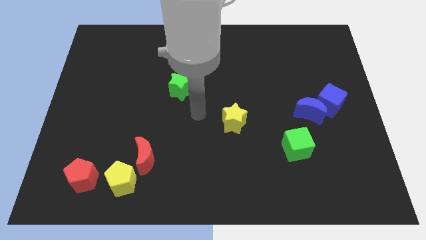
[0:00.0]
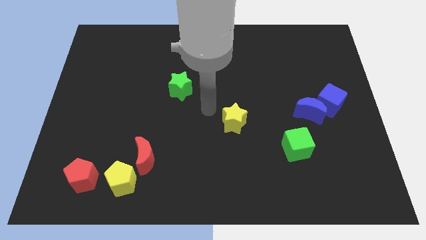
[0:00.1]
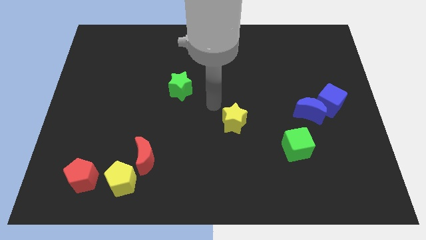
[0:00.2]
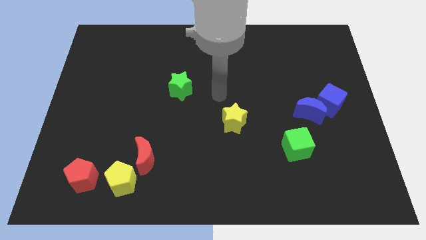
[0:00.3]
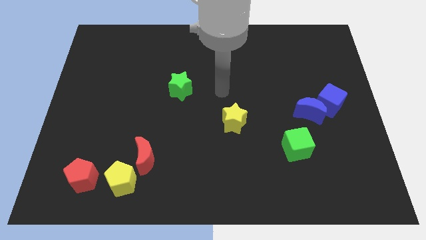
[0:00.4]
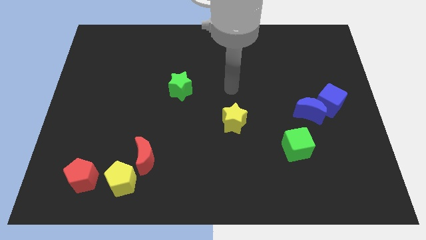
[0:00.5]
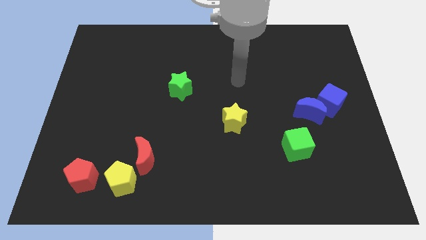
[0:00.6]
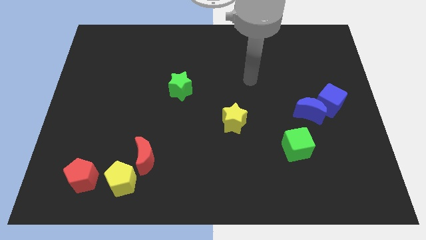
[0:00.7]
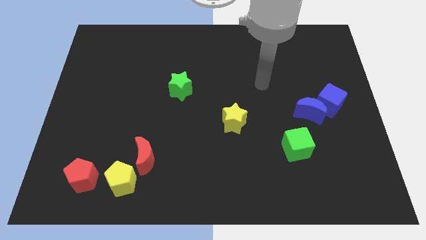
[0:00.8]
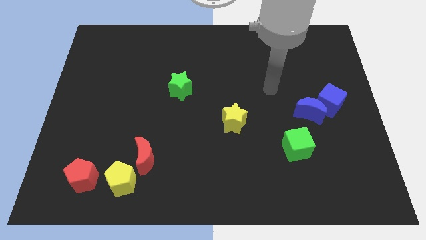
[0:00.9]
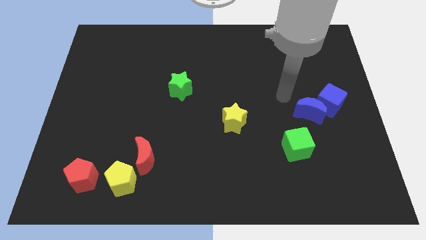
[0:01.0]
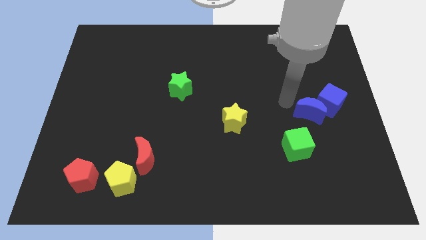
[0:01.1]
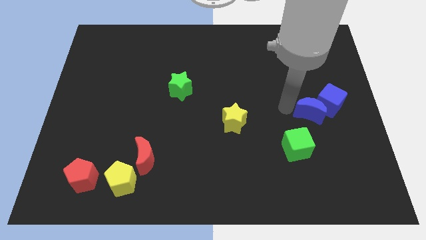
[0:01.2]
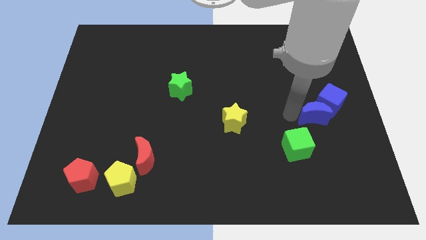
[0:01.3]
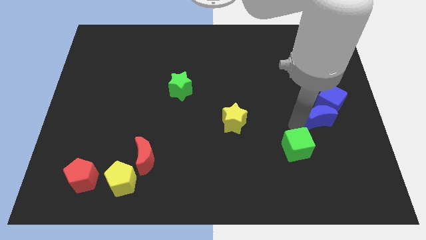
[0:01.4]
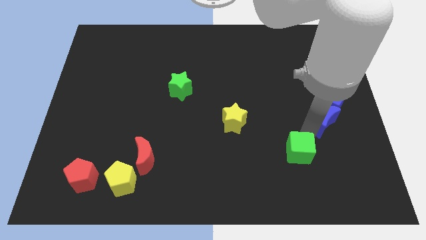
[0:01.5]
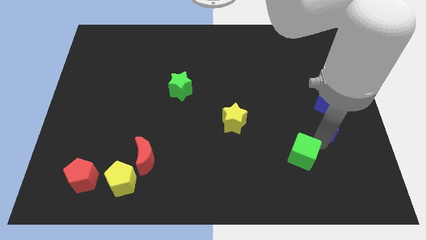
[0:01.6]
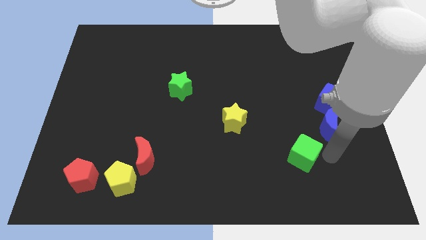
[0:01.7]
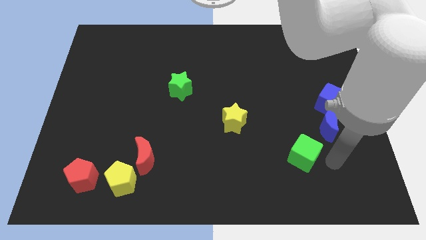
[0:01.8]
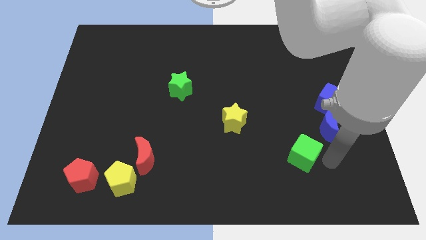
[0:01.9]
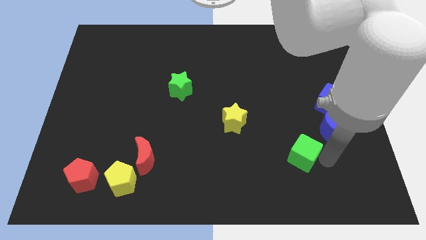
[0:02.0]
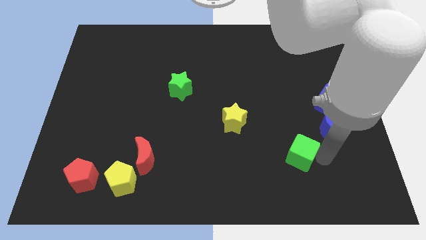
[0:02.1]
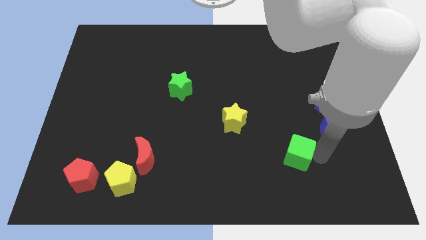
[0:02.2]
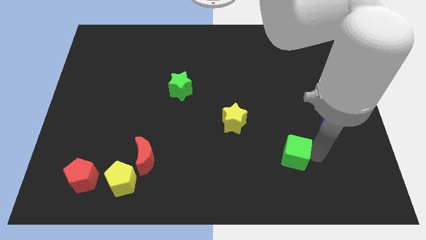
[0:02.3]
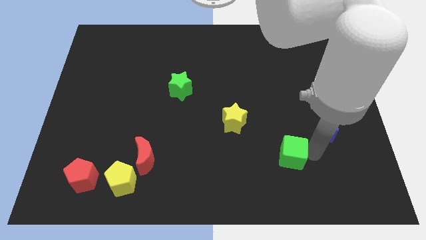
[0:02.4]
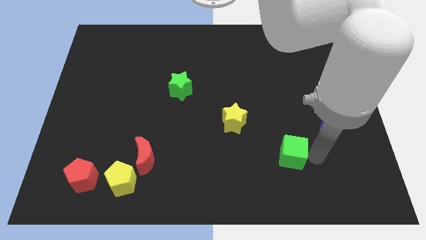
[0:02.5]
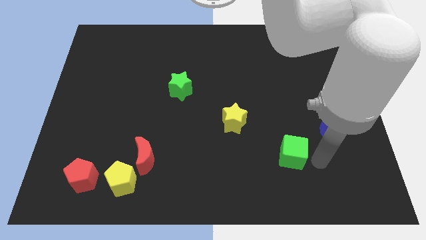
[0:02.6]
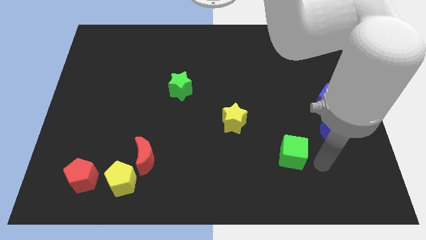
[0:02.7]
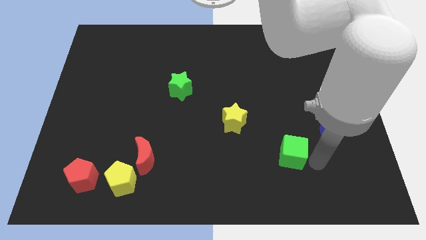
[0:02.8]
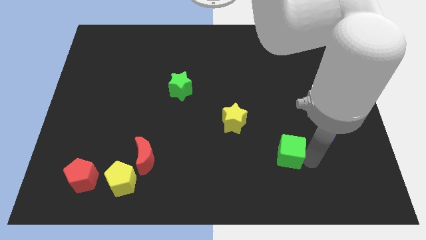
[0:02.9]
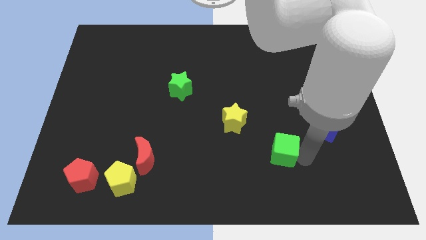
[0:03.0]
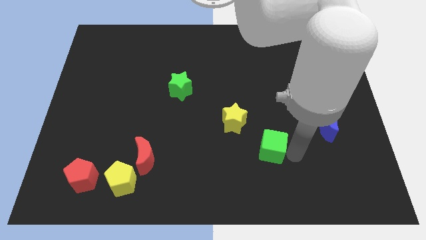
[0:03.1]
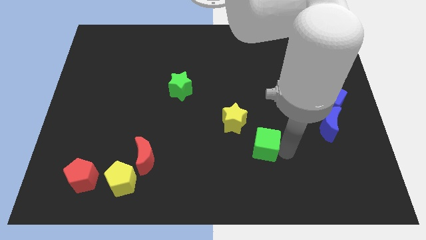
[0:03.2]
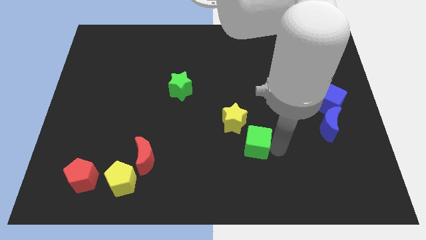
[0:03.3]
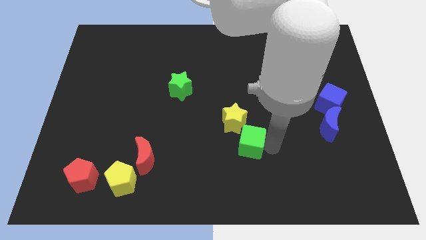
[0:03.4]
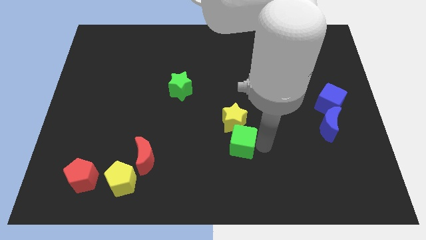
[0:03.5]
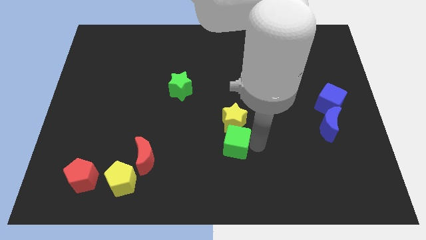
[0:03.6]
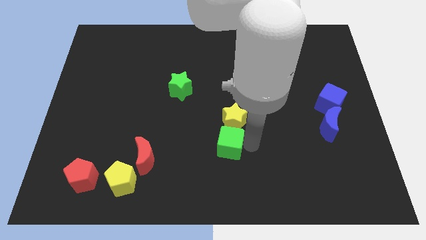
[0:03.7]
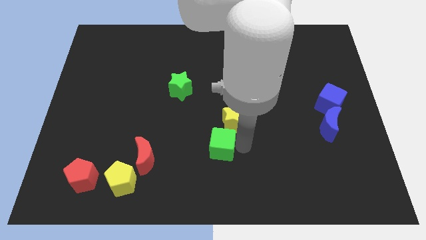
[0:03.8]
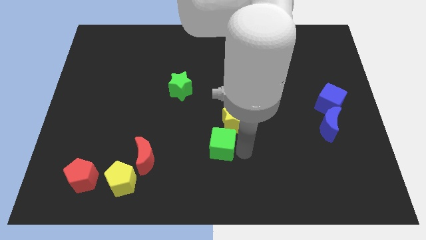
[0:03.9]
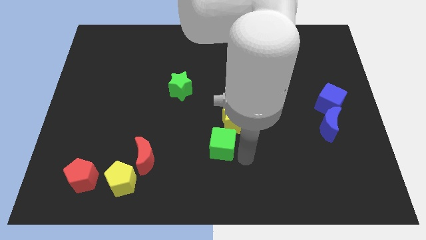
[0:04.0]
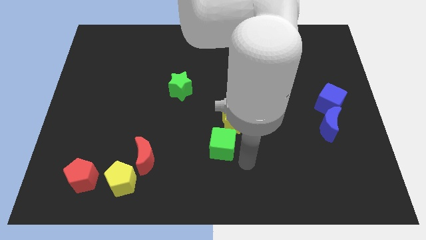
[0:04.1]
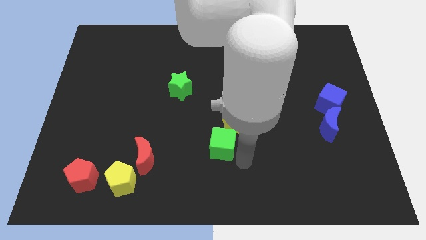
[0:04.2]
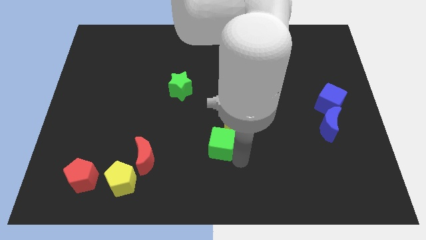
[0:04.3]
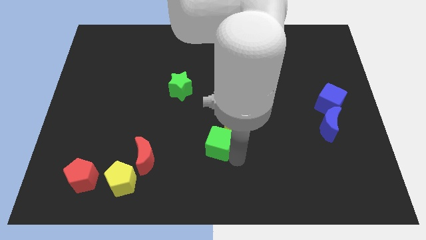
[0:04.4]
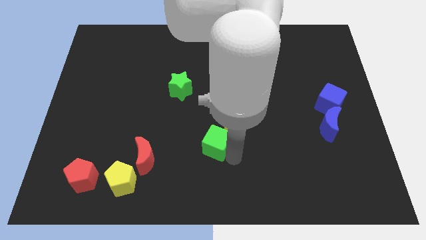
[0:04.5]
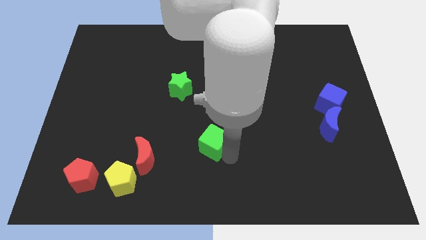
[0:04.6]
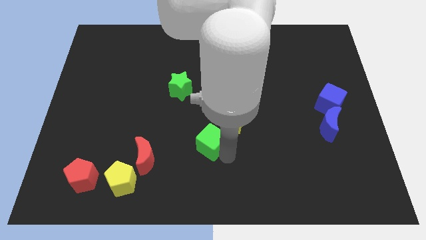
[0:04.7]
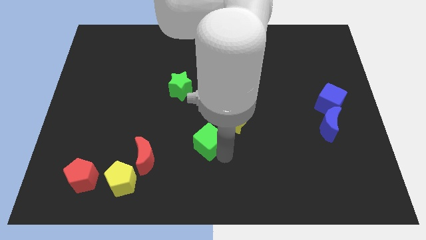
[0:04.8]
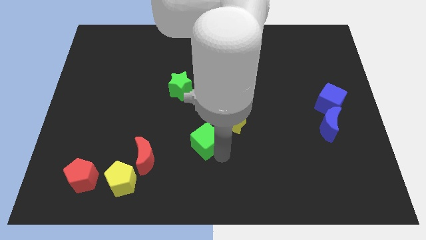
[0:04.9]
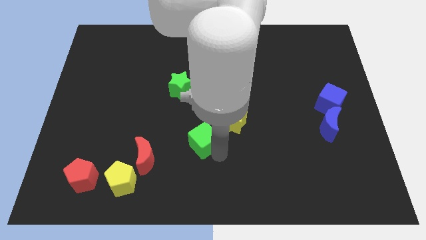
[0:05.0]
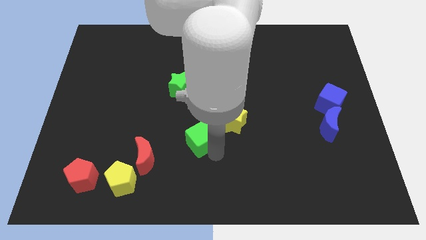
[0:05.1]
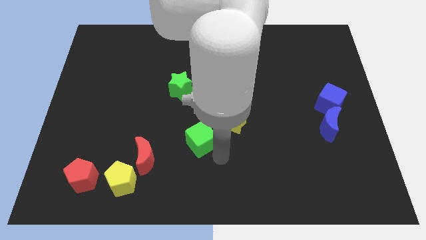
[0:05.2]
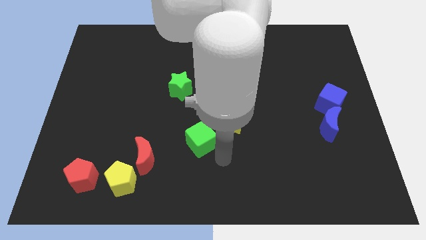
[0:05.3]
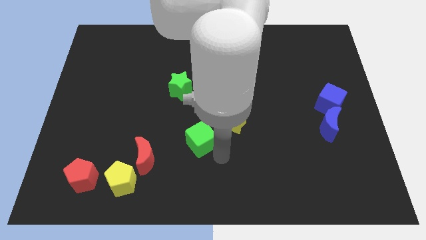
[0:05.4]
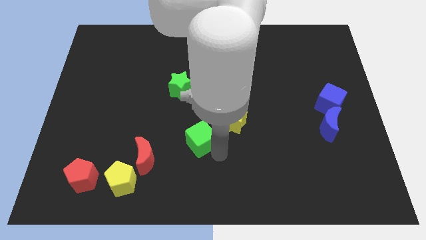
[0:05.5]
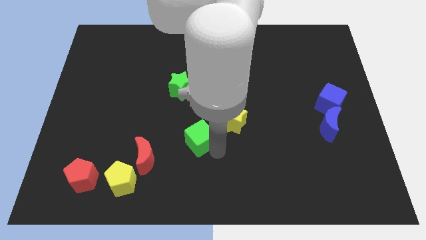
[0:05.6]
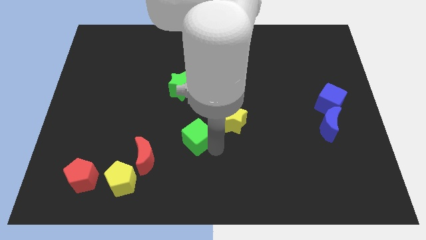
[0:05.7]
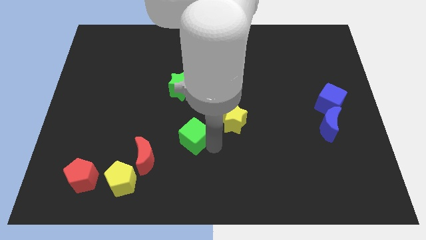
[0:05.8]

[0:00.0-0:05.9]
slide the green cube to the bottom side of the green star
